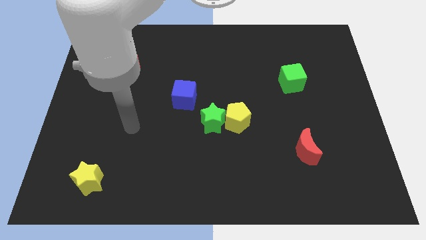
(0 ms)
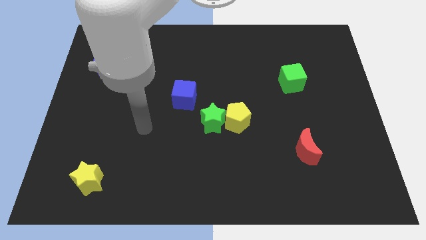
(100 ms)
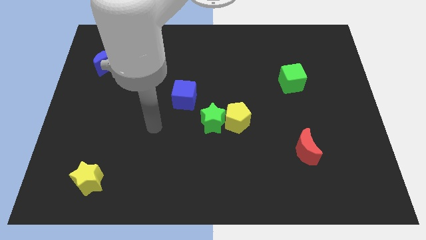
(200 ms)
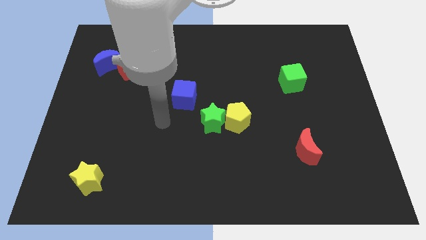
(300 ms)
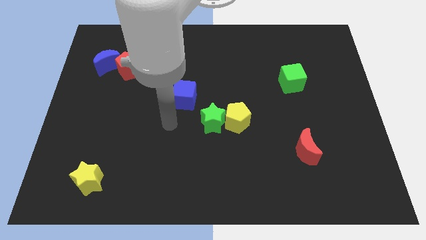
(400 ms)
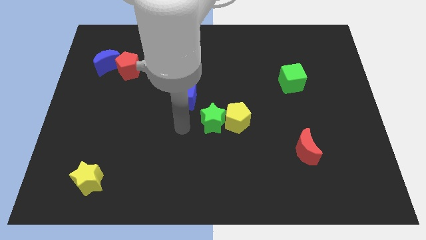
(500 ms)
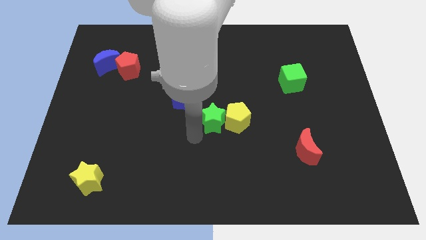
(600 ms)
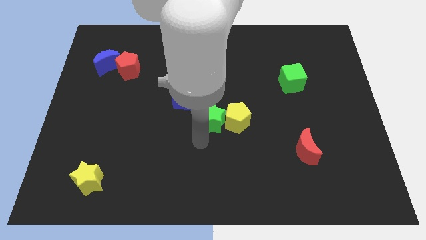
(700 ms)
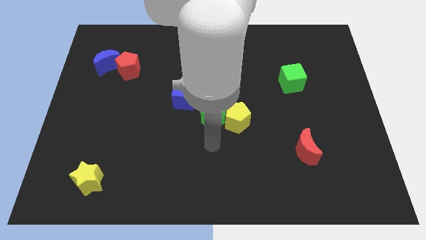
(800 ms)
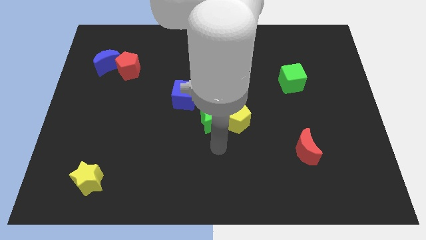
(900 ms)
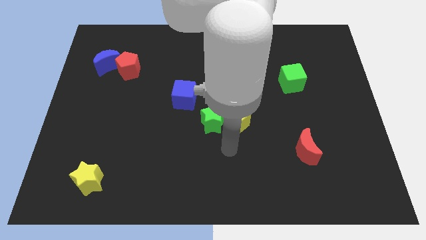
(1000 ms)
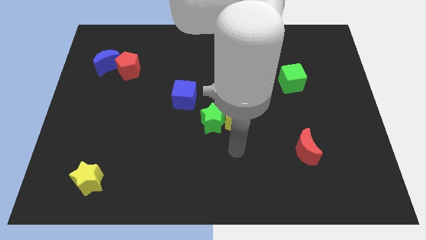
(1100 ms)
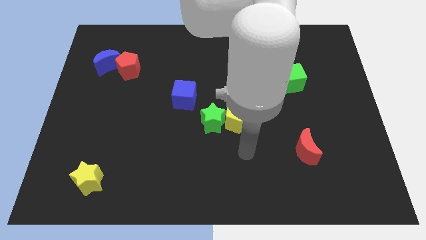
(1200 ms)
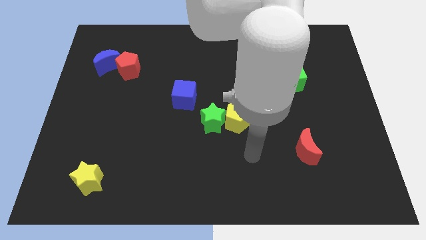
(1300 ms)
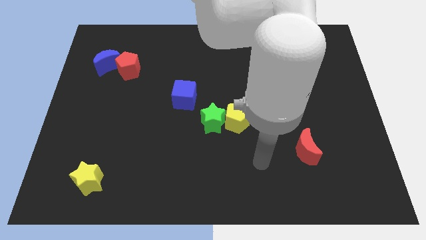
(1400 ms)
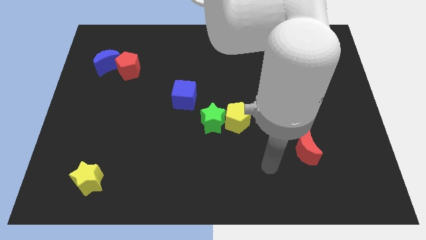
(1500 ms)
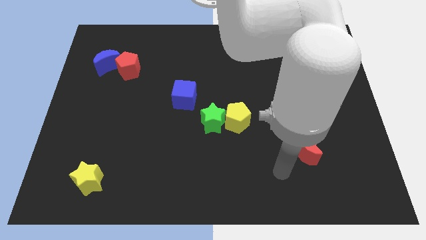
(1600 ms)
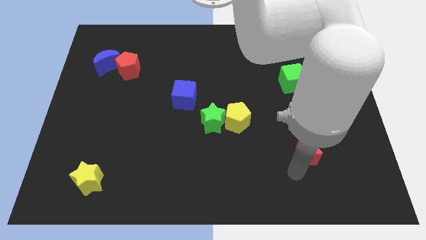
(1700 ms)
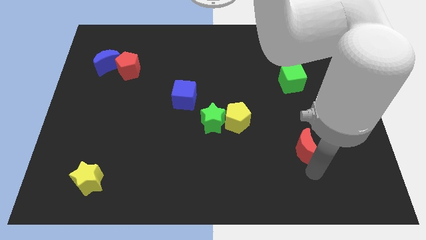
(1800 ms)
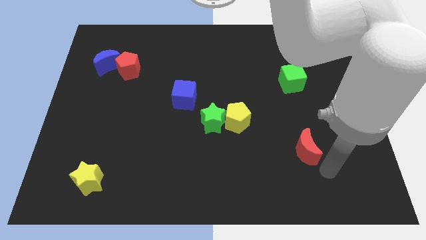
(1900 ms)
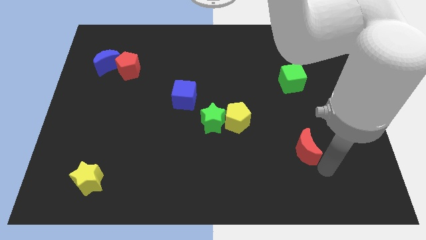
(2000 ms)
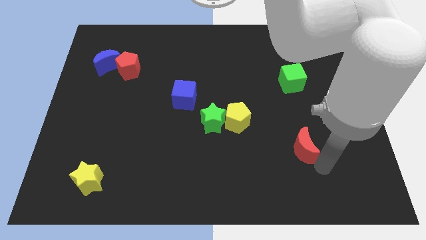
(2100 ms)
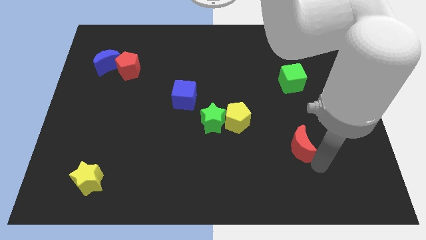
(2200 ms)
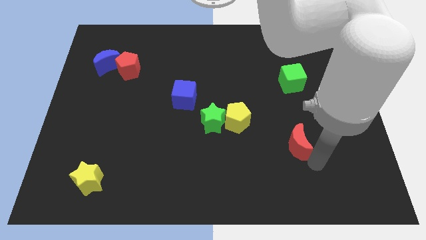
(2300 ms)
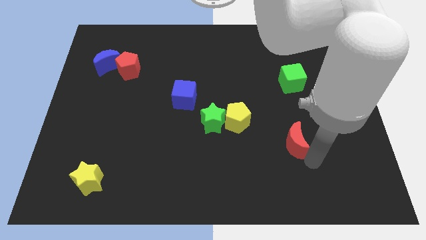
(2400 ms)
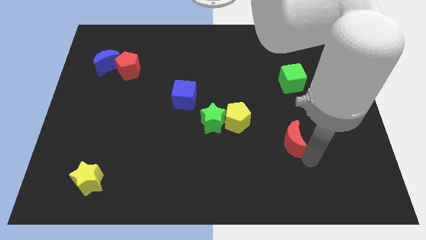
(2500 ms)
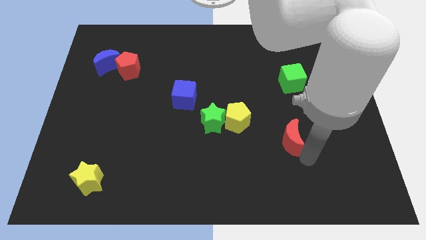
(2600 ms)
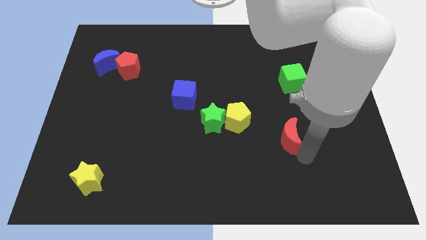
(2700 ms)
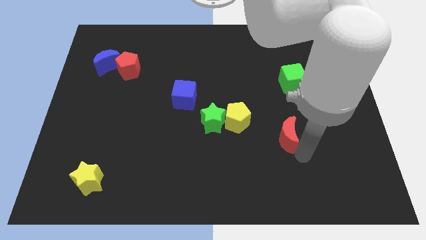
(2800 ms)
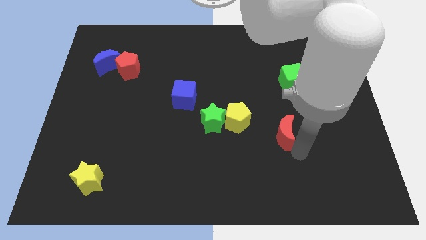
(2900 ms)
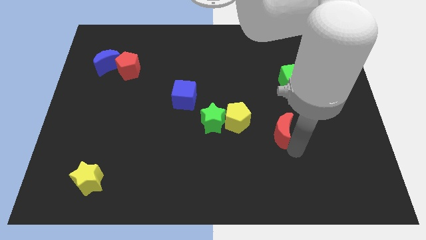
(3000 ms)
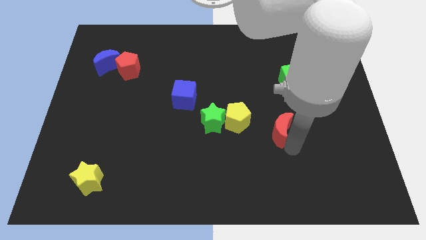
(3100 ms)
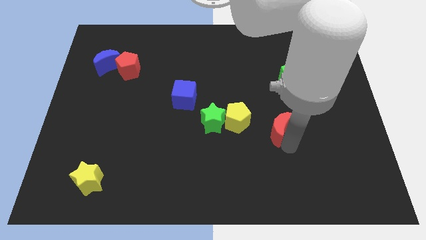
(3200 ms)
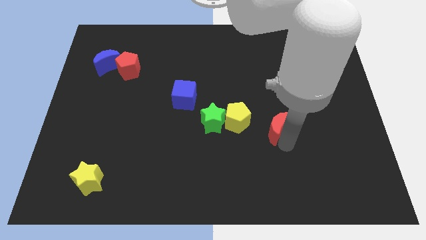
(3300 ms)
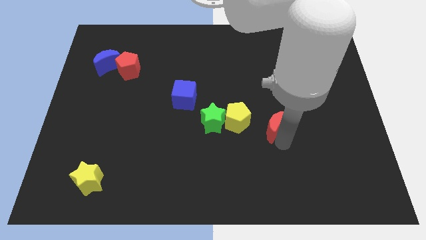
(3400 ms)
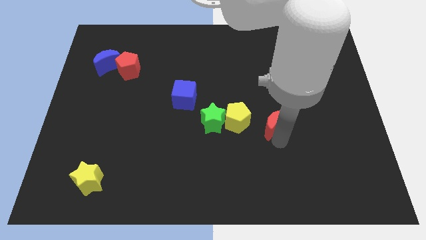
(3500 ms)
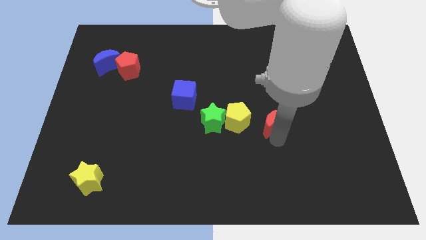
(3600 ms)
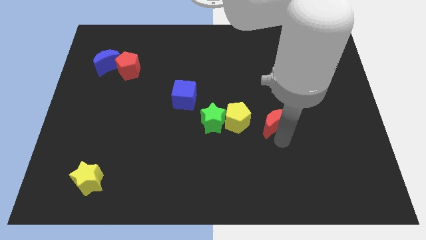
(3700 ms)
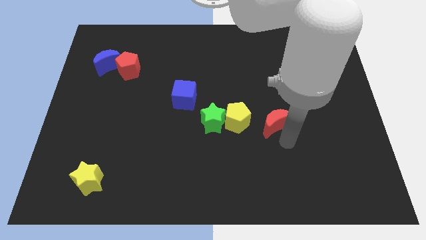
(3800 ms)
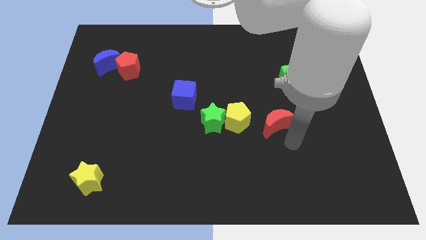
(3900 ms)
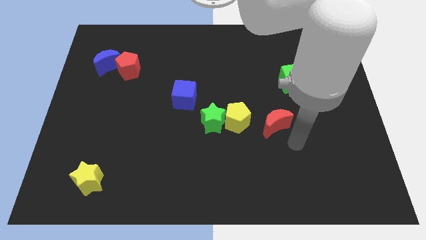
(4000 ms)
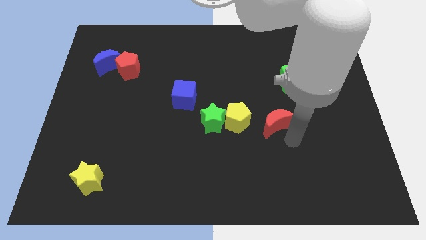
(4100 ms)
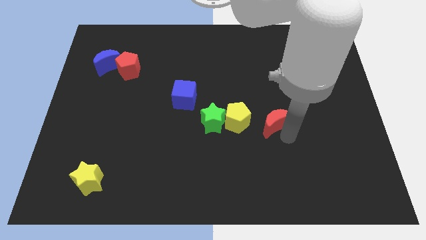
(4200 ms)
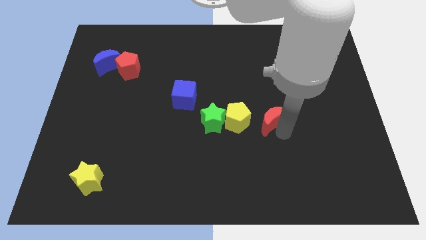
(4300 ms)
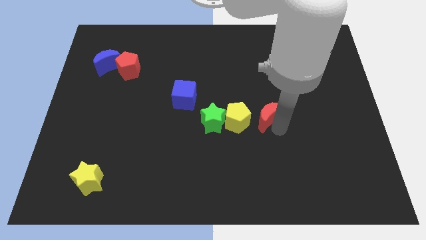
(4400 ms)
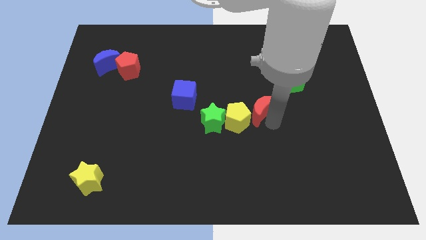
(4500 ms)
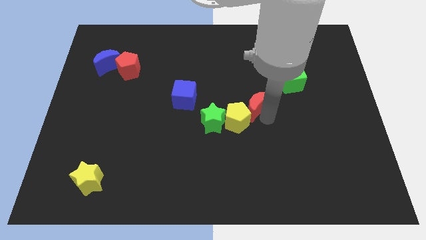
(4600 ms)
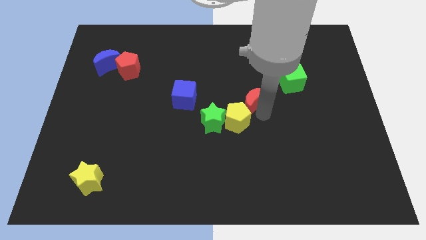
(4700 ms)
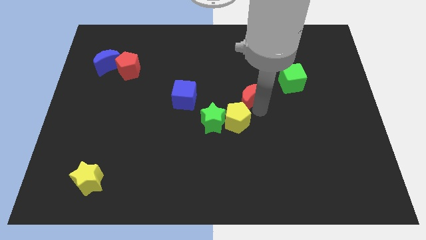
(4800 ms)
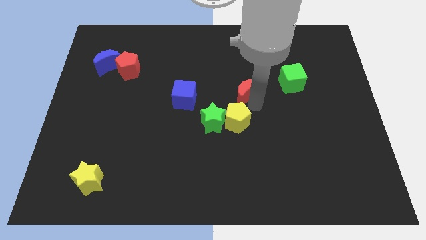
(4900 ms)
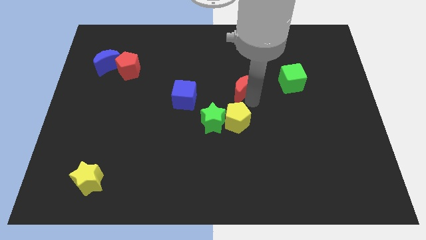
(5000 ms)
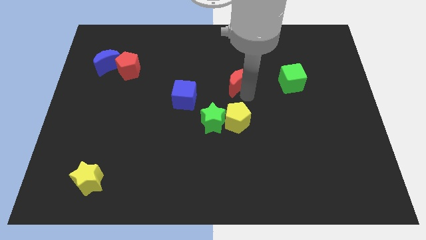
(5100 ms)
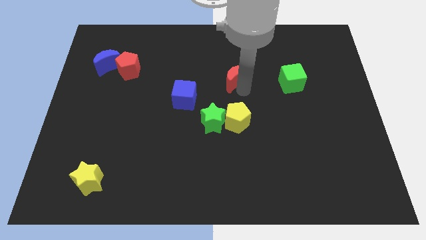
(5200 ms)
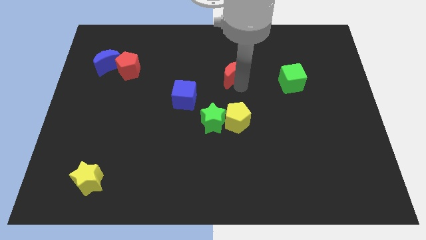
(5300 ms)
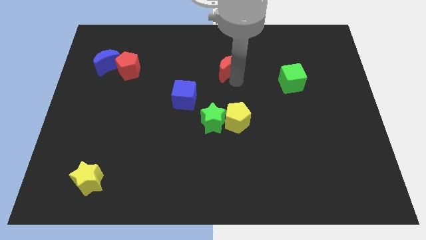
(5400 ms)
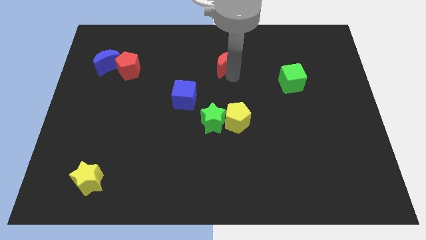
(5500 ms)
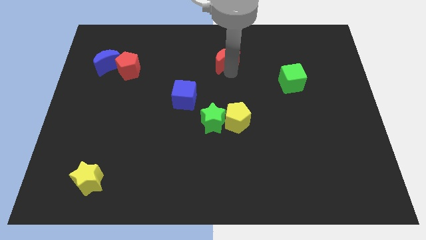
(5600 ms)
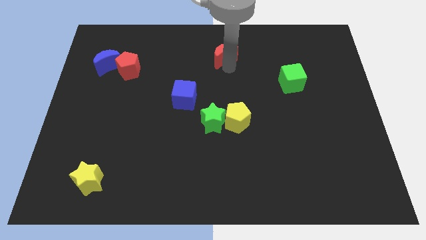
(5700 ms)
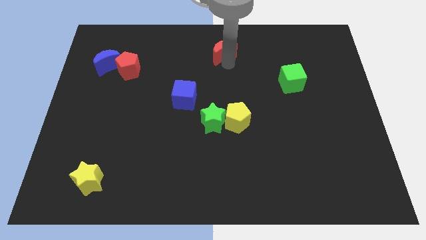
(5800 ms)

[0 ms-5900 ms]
move the red moon to the top

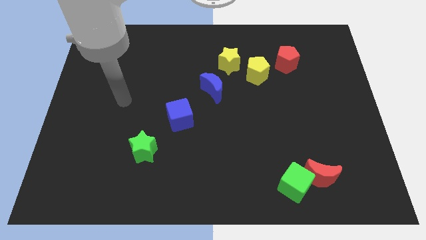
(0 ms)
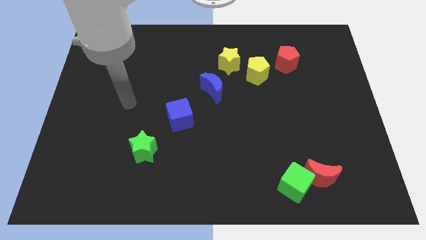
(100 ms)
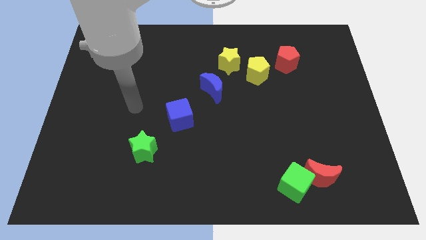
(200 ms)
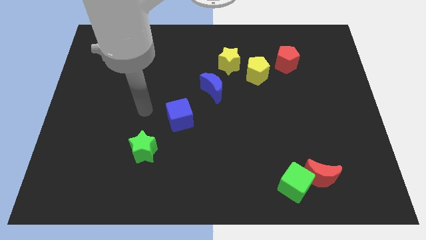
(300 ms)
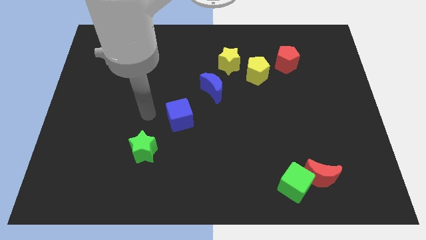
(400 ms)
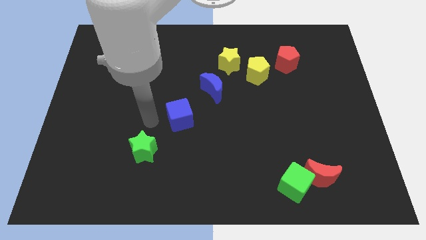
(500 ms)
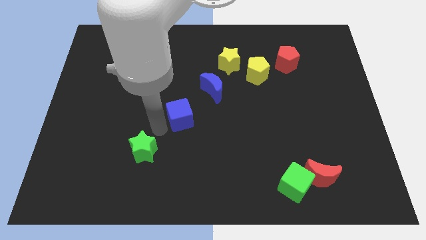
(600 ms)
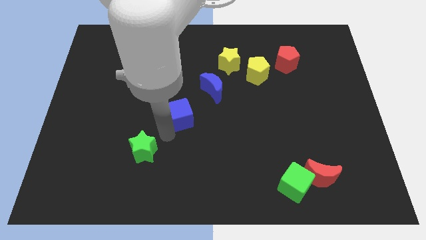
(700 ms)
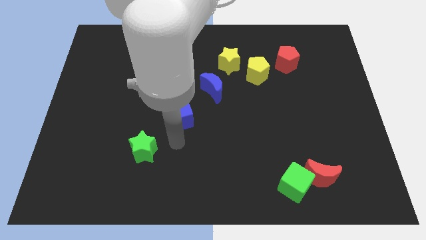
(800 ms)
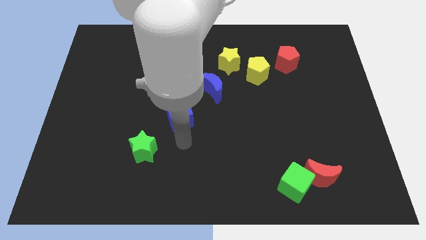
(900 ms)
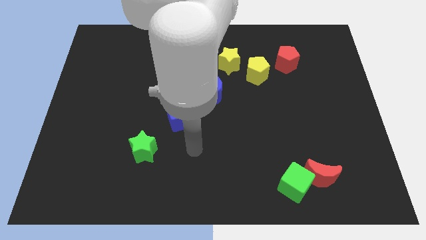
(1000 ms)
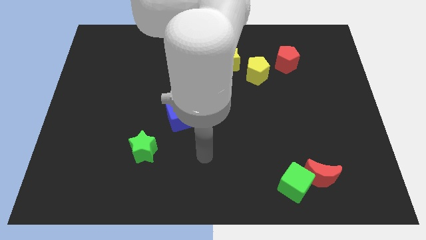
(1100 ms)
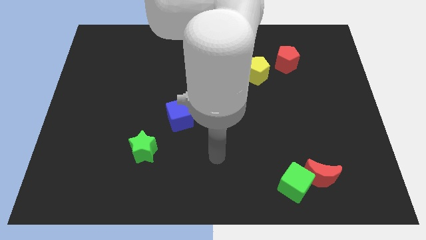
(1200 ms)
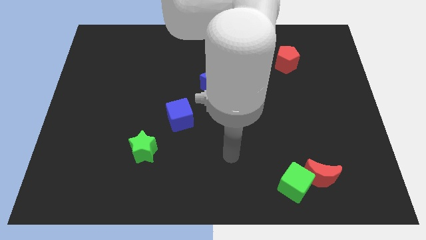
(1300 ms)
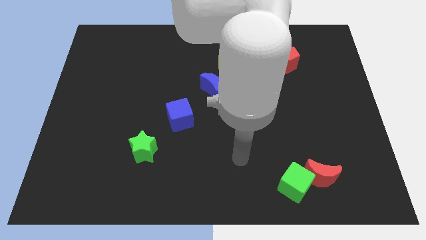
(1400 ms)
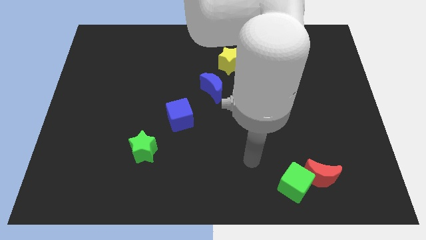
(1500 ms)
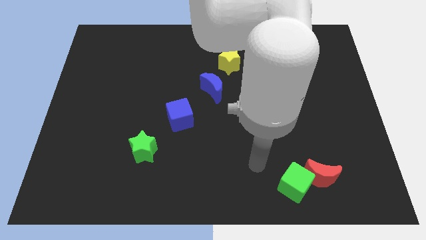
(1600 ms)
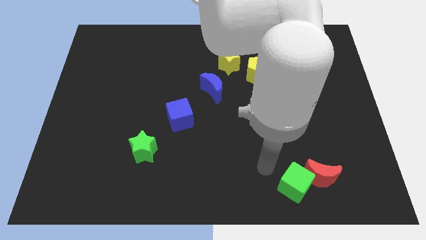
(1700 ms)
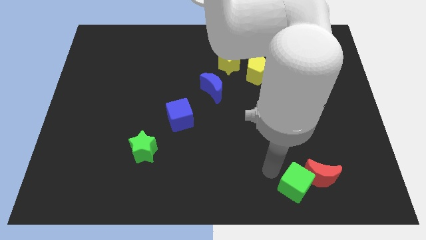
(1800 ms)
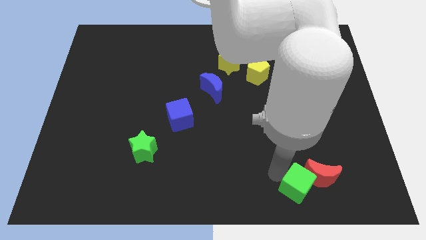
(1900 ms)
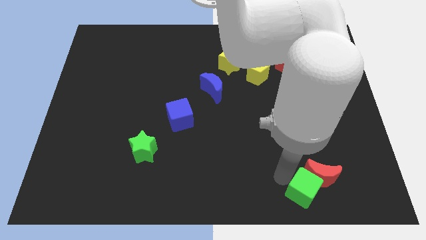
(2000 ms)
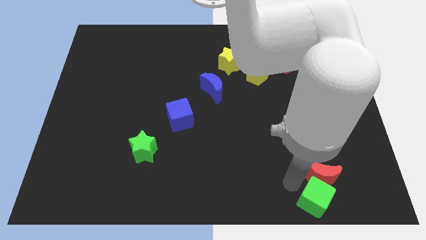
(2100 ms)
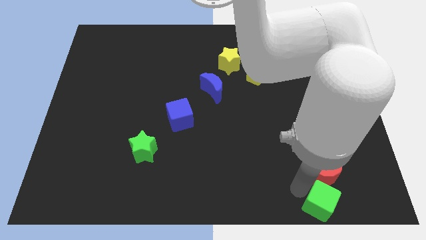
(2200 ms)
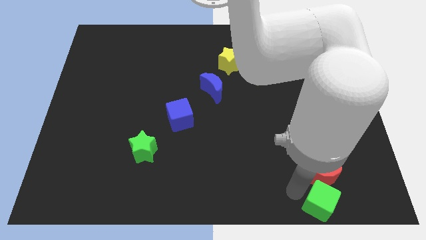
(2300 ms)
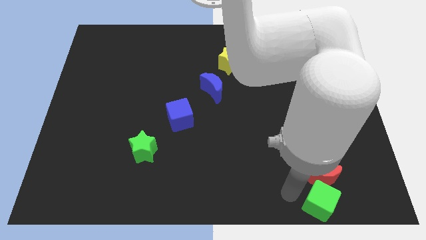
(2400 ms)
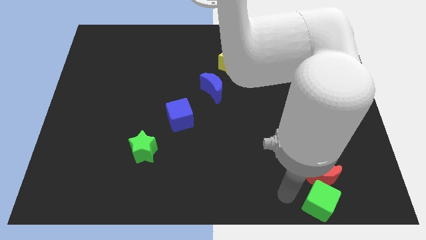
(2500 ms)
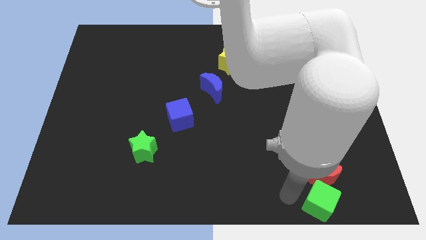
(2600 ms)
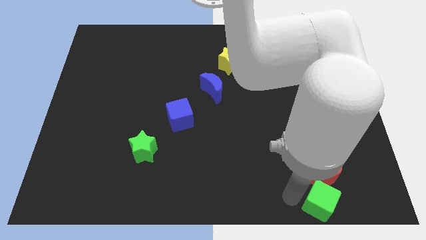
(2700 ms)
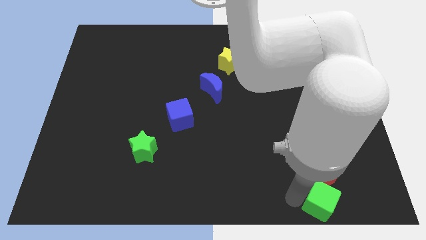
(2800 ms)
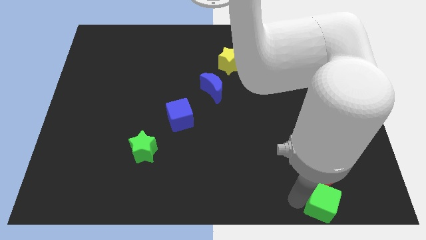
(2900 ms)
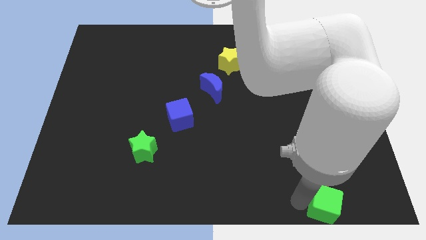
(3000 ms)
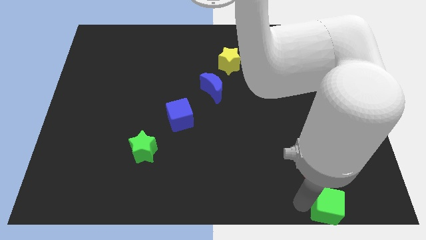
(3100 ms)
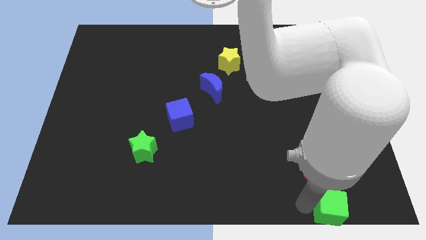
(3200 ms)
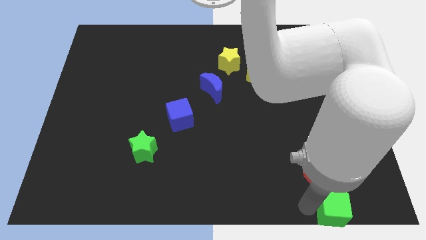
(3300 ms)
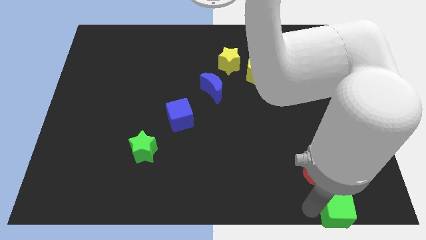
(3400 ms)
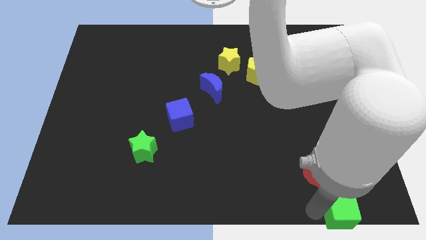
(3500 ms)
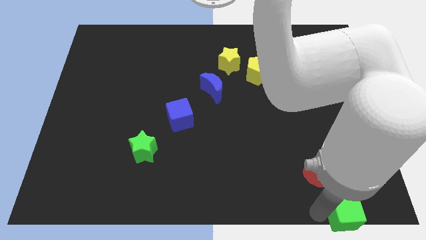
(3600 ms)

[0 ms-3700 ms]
move the green cube to the bottom right
